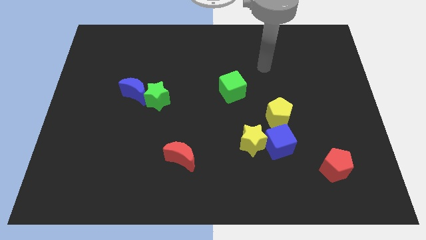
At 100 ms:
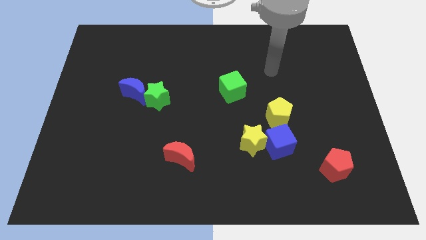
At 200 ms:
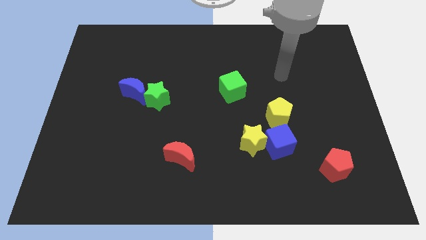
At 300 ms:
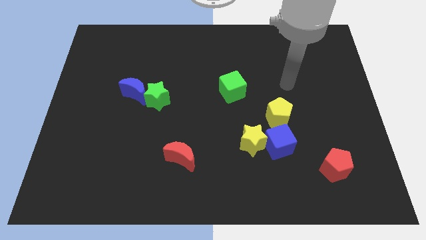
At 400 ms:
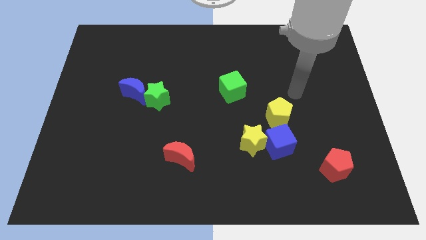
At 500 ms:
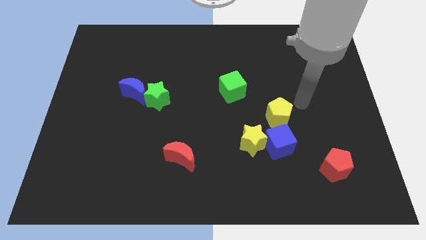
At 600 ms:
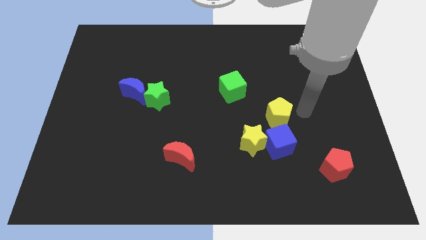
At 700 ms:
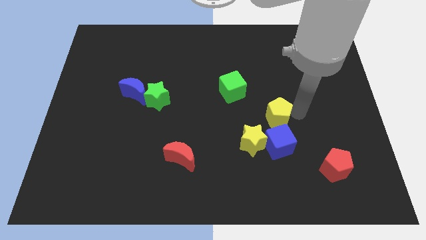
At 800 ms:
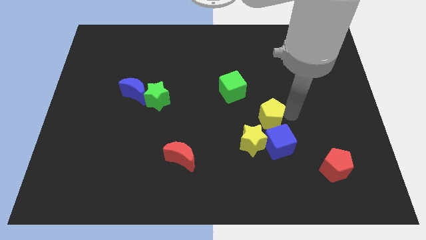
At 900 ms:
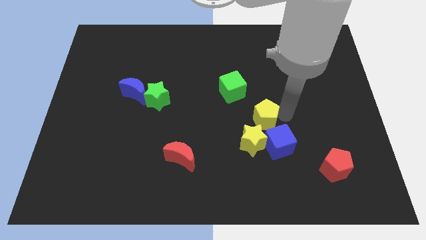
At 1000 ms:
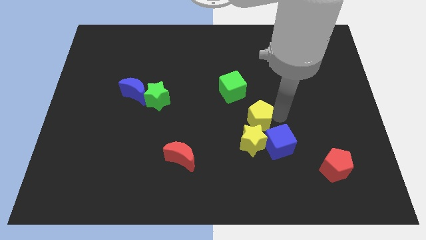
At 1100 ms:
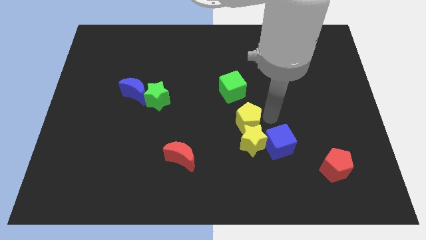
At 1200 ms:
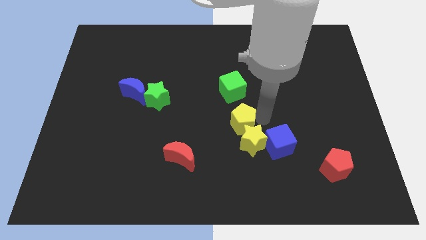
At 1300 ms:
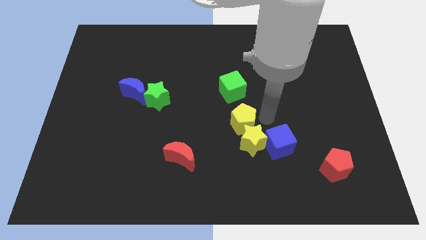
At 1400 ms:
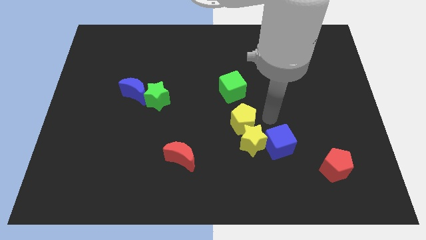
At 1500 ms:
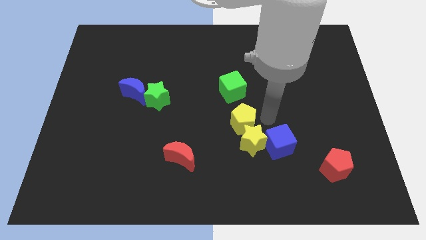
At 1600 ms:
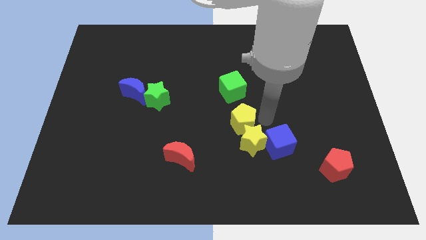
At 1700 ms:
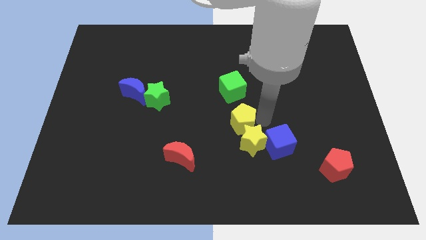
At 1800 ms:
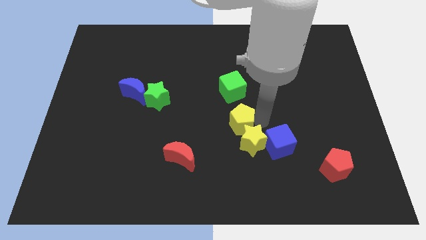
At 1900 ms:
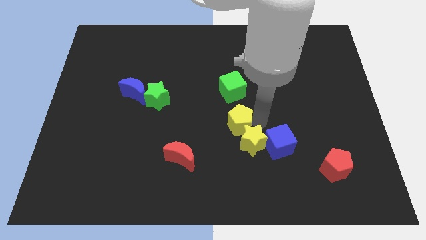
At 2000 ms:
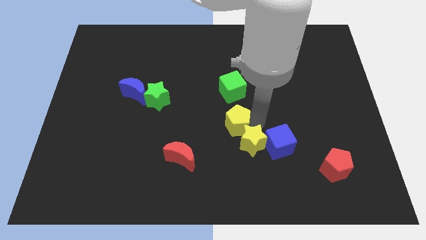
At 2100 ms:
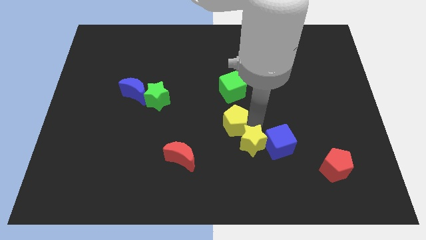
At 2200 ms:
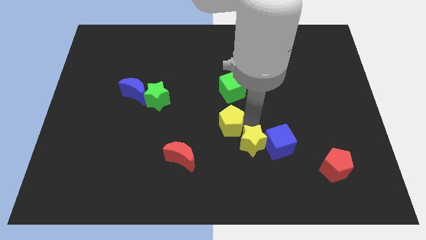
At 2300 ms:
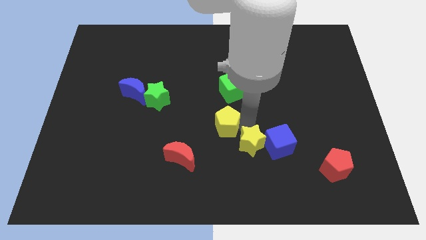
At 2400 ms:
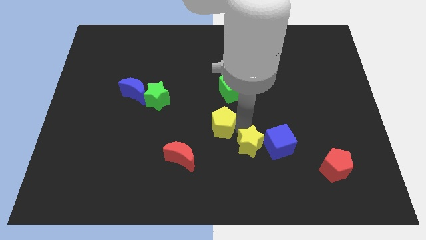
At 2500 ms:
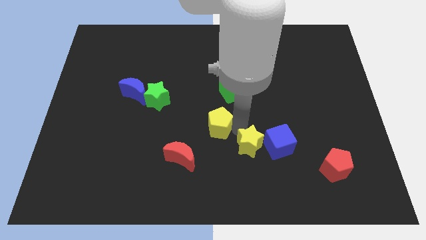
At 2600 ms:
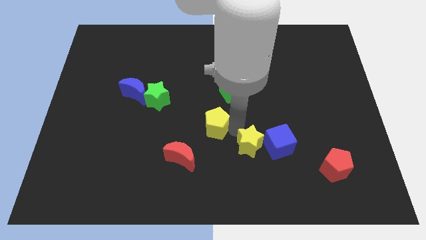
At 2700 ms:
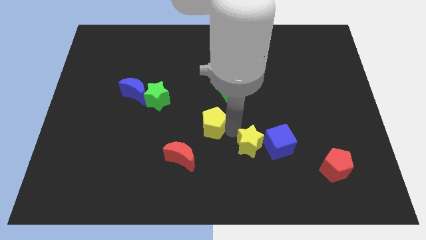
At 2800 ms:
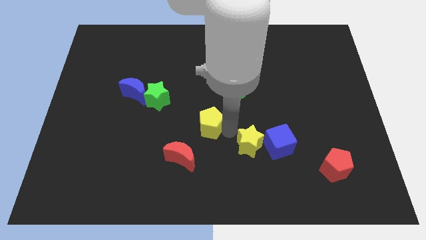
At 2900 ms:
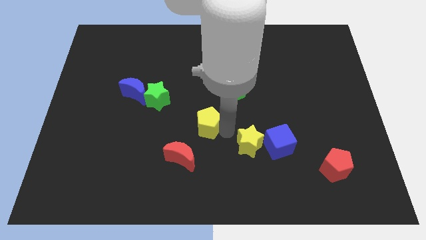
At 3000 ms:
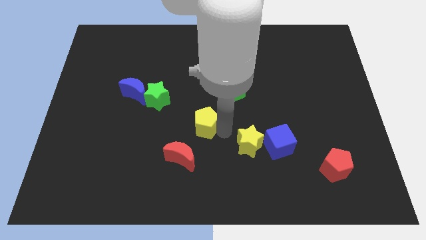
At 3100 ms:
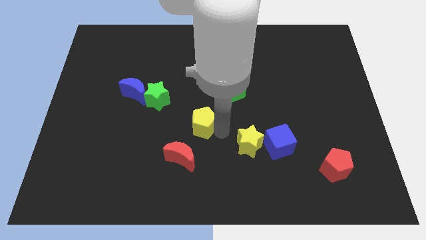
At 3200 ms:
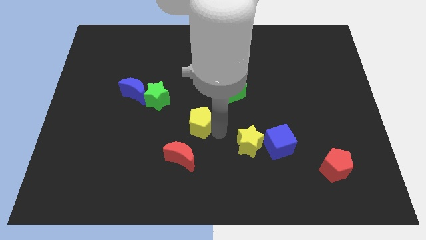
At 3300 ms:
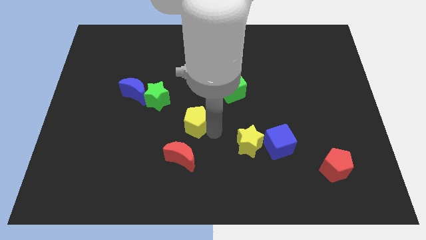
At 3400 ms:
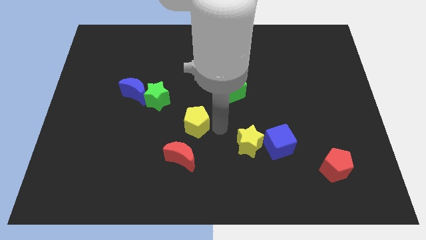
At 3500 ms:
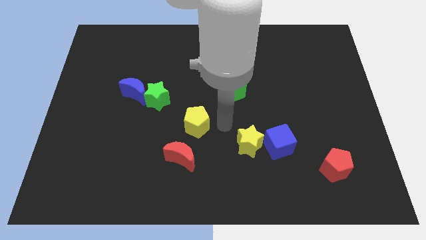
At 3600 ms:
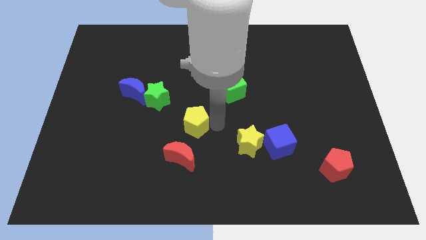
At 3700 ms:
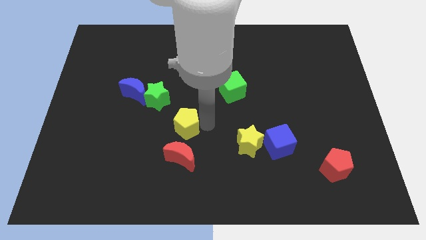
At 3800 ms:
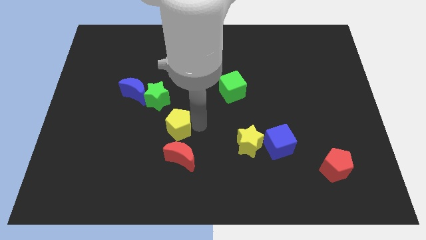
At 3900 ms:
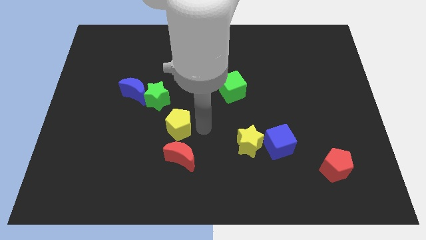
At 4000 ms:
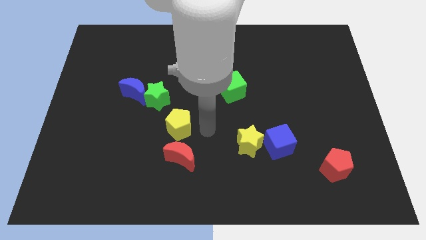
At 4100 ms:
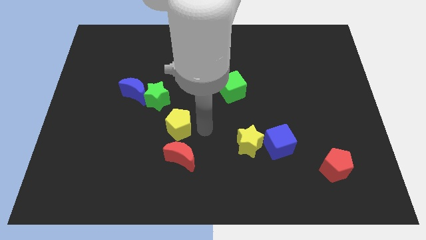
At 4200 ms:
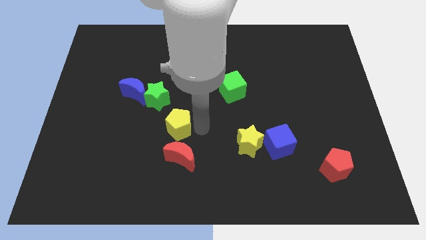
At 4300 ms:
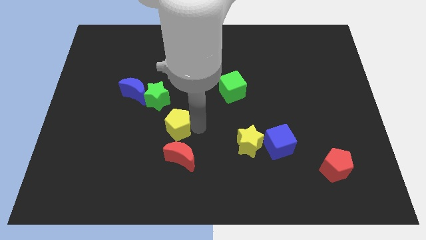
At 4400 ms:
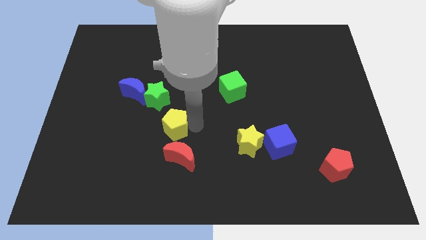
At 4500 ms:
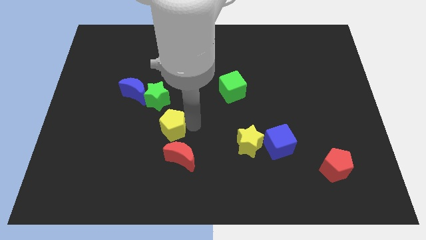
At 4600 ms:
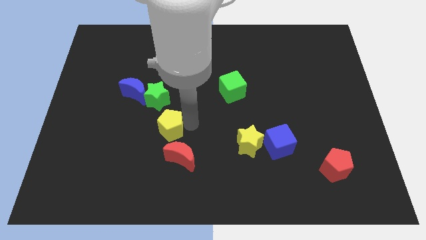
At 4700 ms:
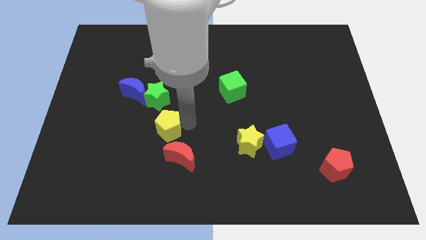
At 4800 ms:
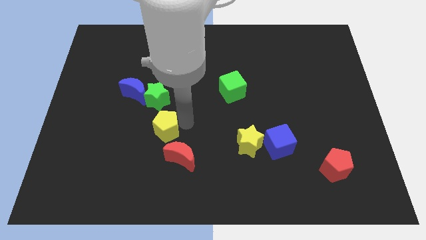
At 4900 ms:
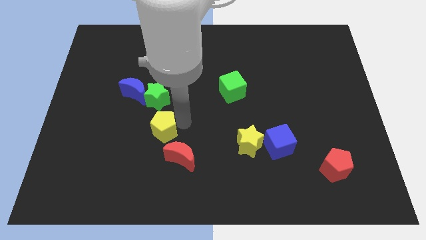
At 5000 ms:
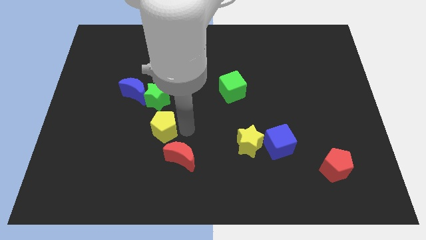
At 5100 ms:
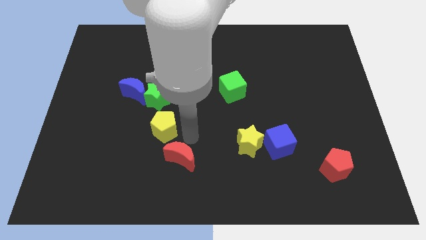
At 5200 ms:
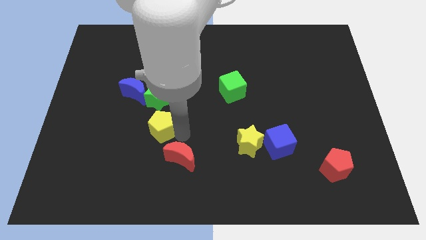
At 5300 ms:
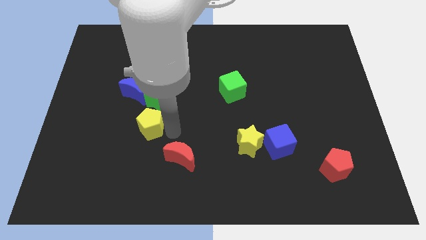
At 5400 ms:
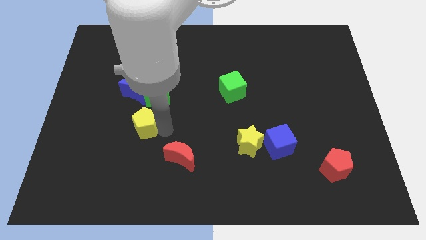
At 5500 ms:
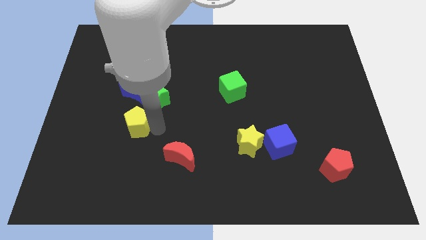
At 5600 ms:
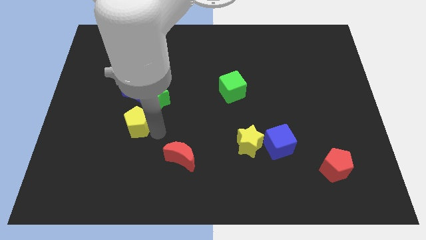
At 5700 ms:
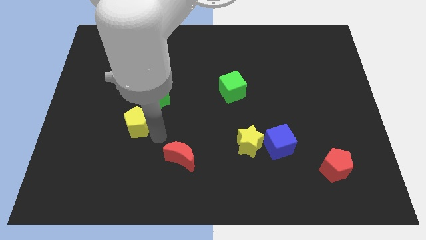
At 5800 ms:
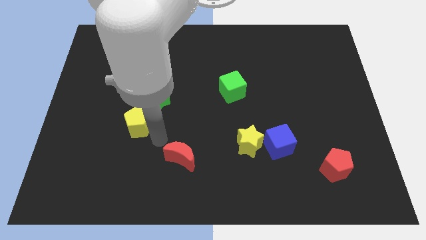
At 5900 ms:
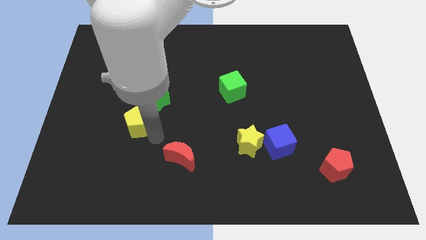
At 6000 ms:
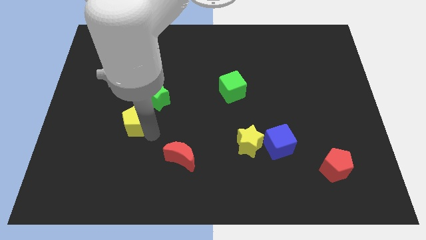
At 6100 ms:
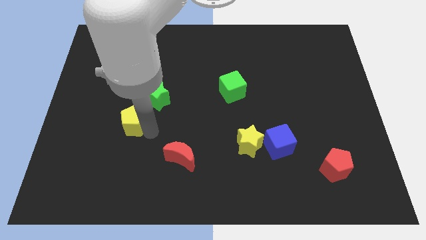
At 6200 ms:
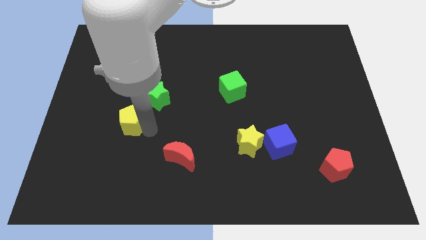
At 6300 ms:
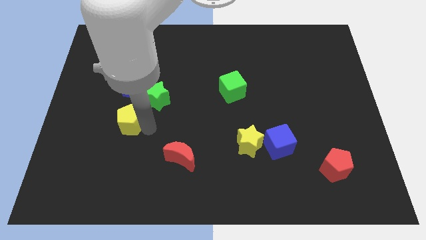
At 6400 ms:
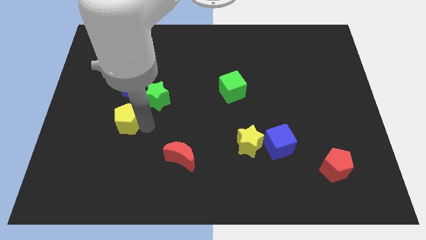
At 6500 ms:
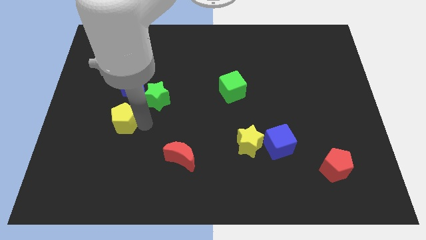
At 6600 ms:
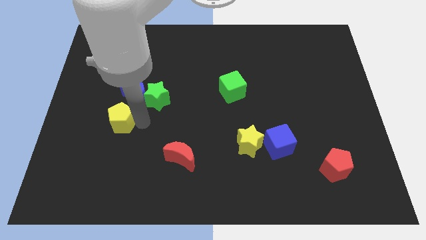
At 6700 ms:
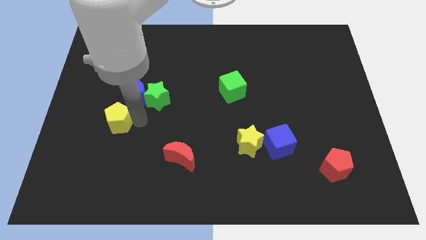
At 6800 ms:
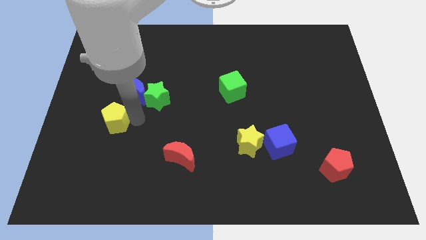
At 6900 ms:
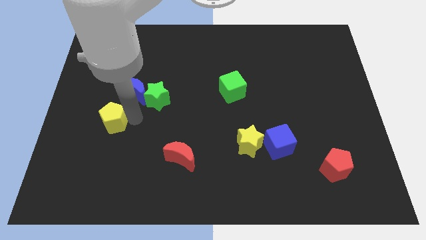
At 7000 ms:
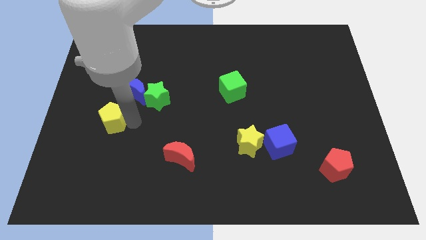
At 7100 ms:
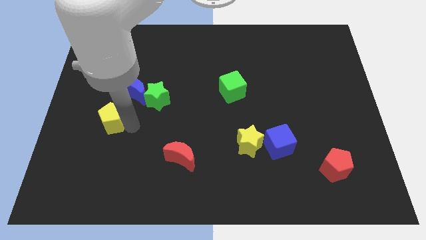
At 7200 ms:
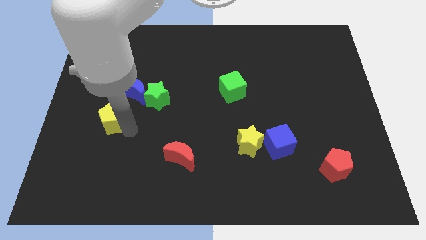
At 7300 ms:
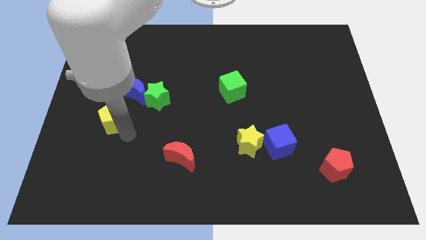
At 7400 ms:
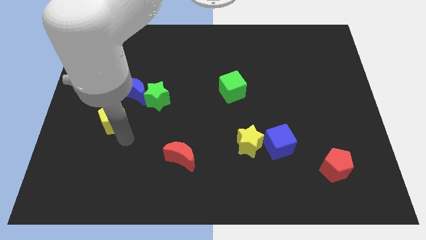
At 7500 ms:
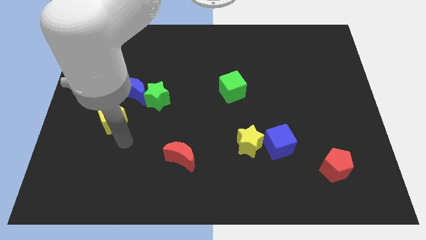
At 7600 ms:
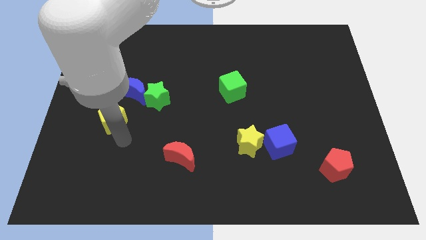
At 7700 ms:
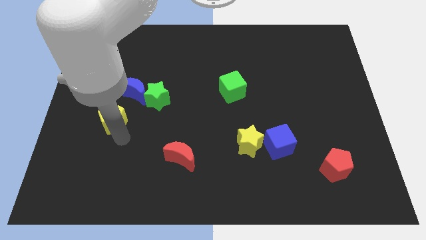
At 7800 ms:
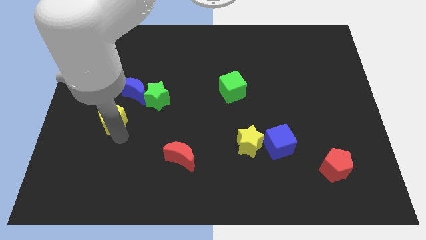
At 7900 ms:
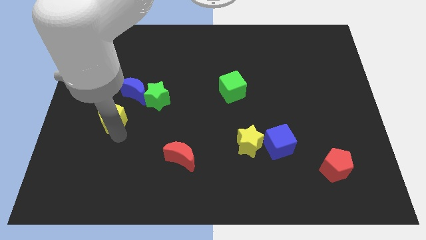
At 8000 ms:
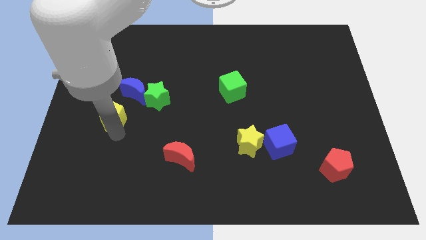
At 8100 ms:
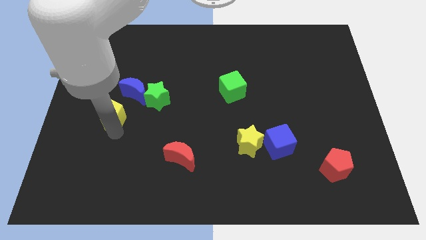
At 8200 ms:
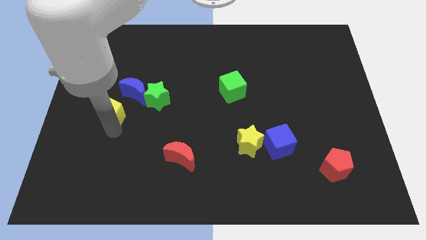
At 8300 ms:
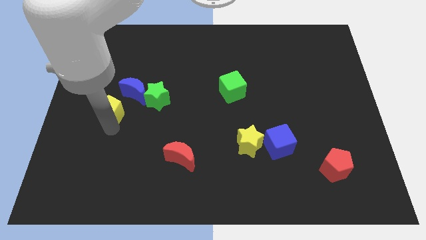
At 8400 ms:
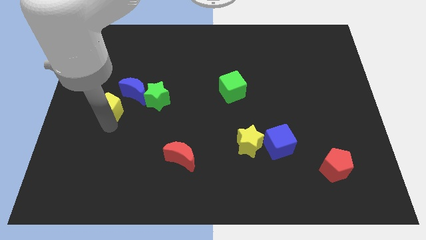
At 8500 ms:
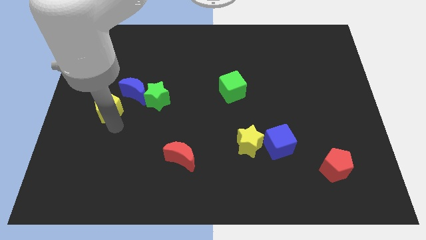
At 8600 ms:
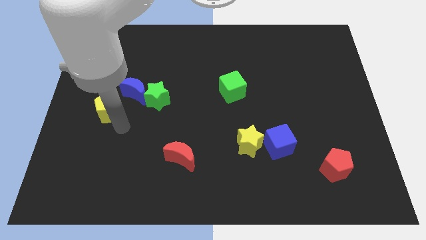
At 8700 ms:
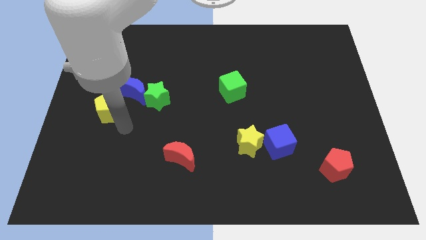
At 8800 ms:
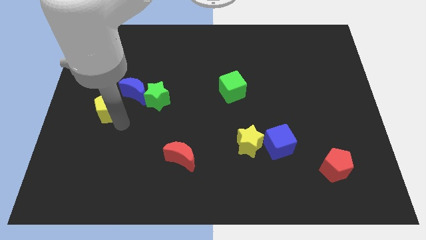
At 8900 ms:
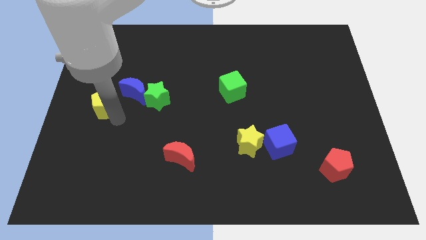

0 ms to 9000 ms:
move the yellow pentagon just left of the blue moon
